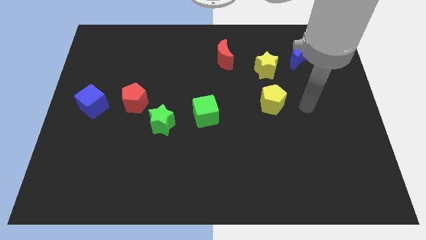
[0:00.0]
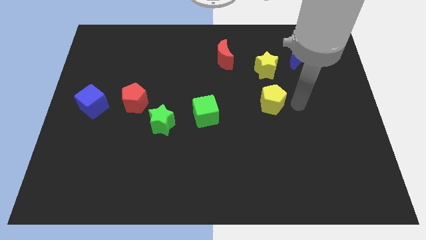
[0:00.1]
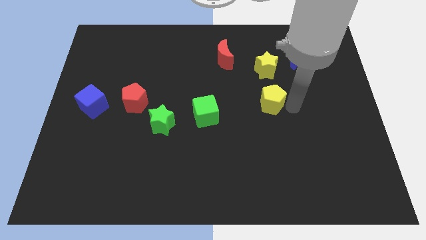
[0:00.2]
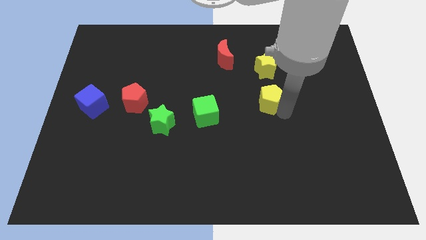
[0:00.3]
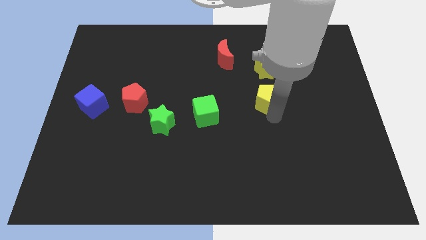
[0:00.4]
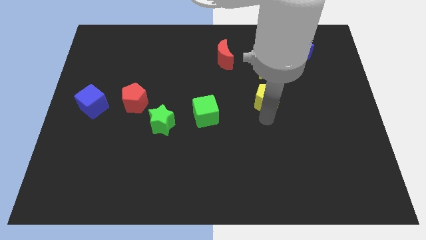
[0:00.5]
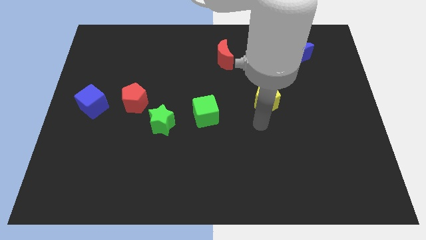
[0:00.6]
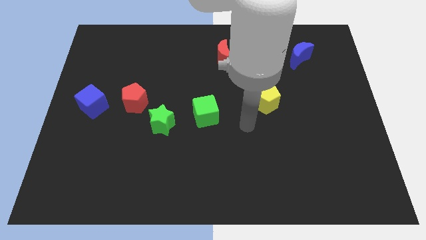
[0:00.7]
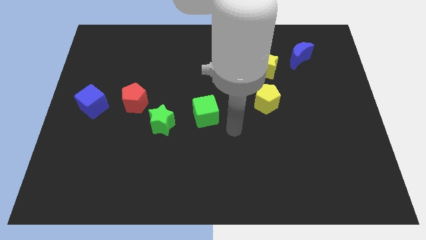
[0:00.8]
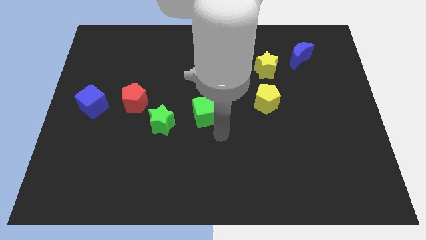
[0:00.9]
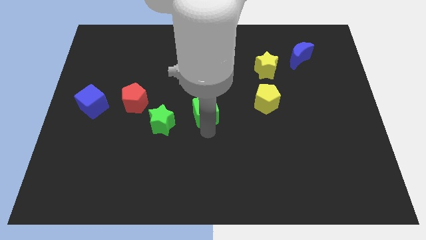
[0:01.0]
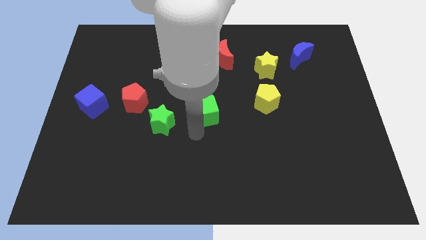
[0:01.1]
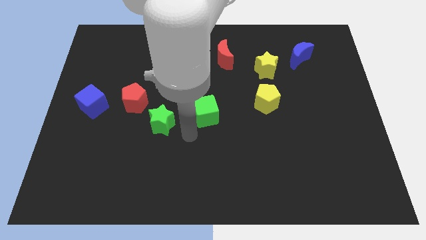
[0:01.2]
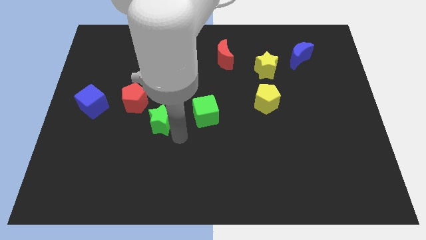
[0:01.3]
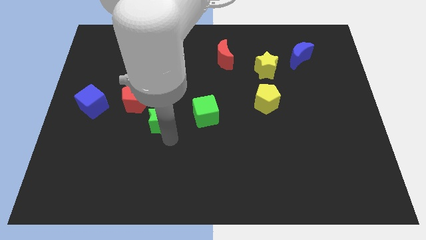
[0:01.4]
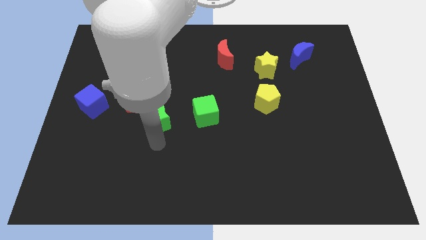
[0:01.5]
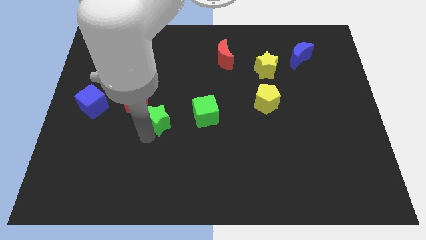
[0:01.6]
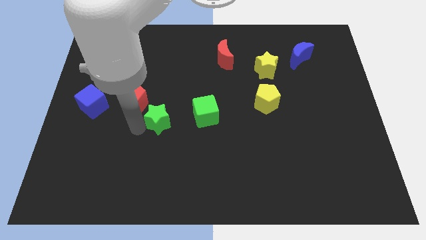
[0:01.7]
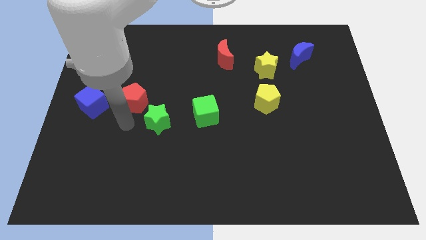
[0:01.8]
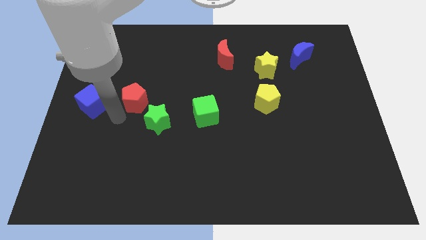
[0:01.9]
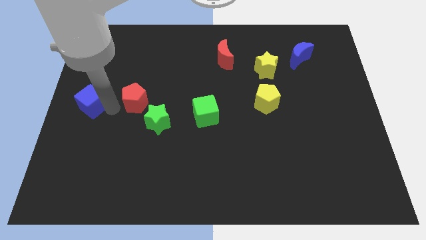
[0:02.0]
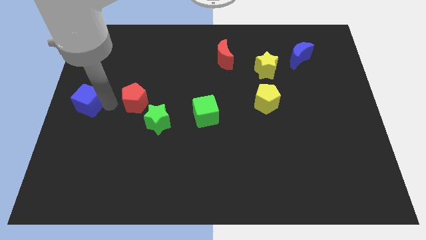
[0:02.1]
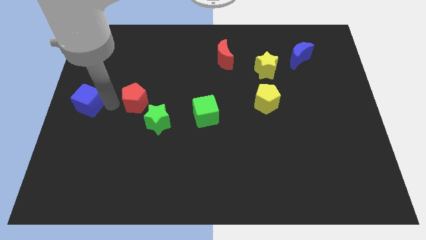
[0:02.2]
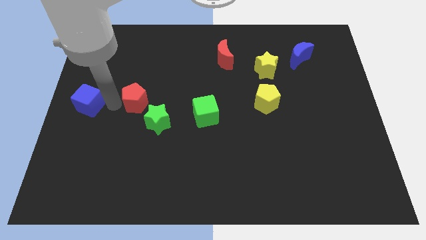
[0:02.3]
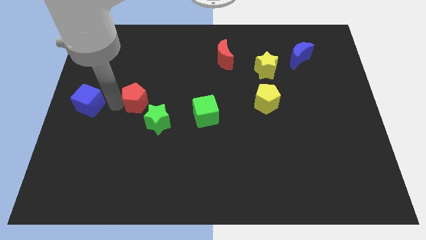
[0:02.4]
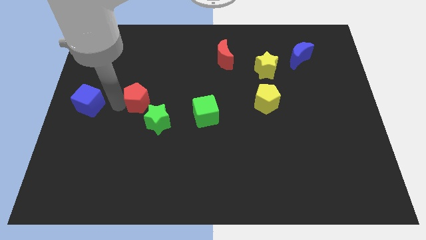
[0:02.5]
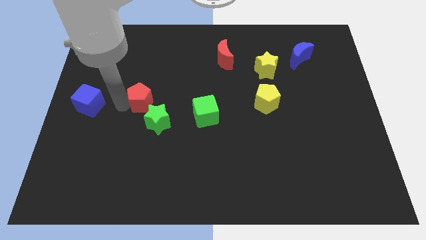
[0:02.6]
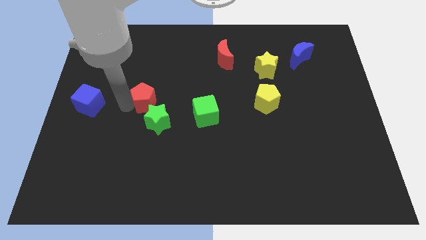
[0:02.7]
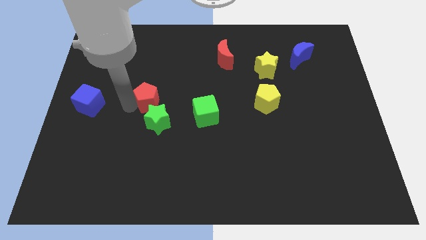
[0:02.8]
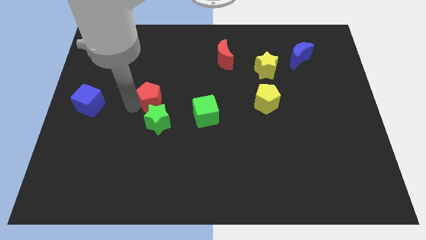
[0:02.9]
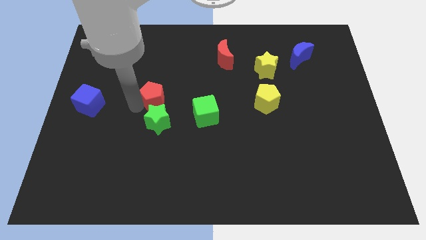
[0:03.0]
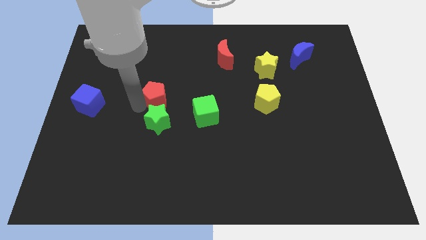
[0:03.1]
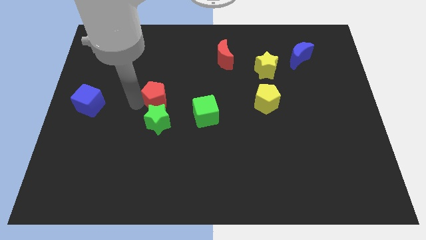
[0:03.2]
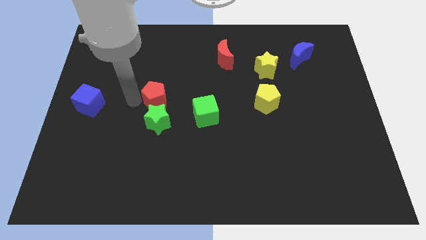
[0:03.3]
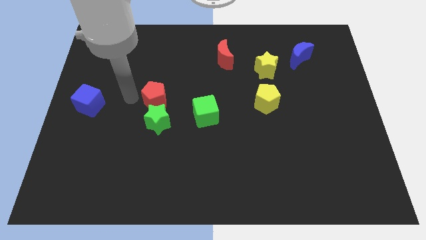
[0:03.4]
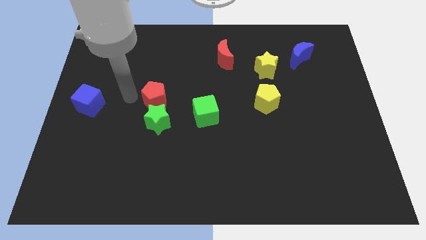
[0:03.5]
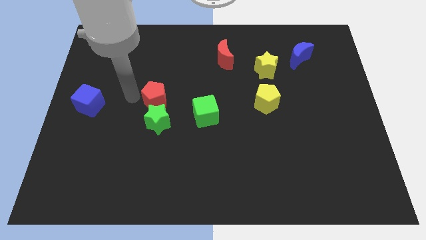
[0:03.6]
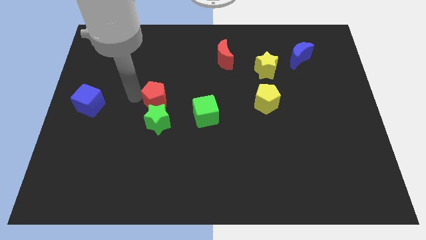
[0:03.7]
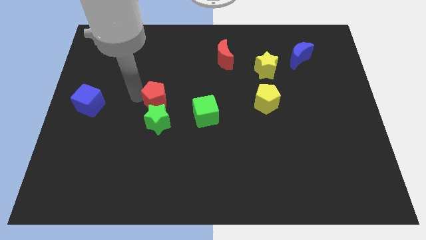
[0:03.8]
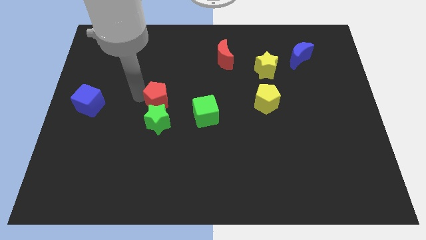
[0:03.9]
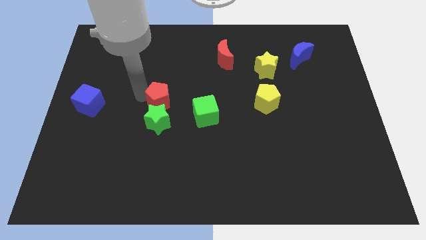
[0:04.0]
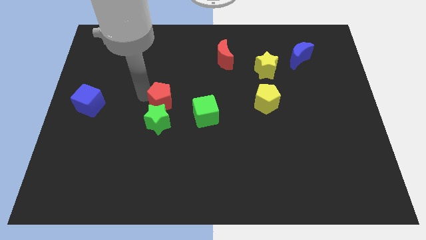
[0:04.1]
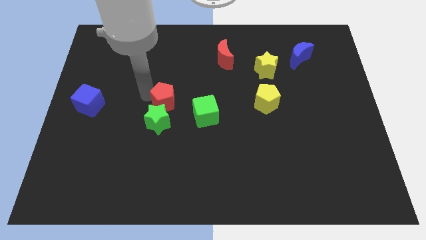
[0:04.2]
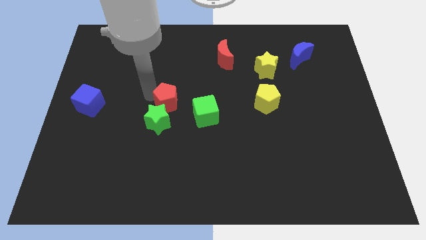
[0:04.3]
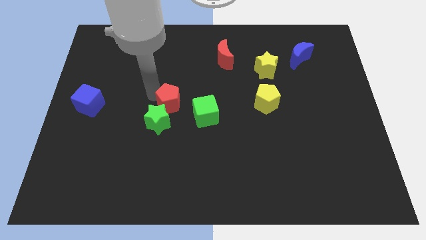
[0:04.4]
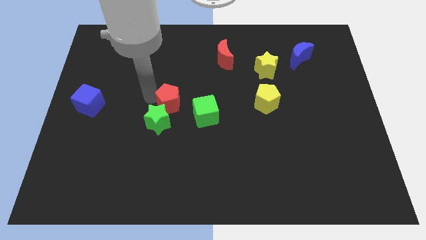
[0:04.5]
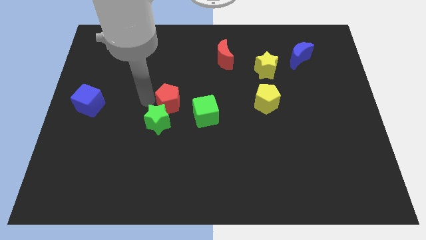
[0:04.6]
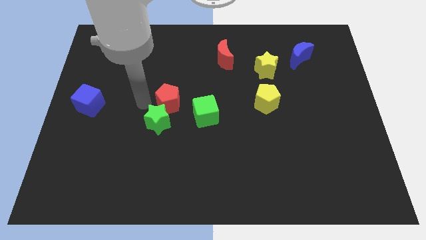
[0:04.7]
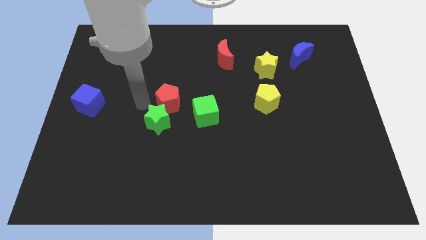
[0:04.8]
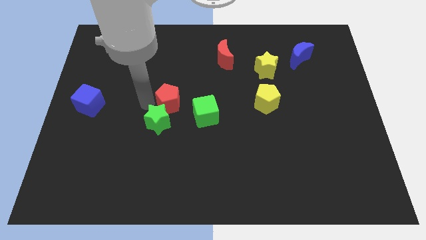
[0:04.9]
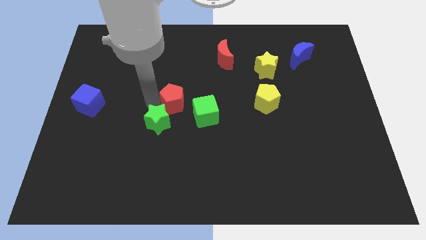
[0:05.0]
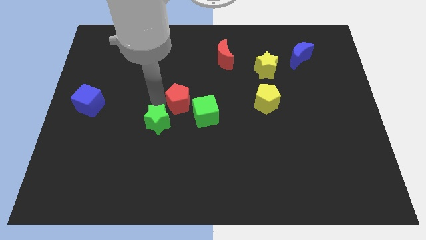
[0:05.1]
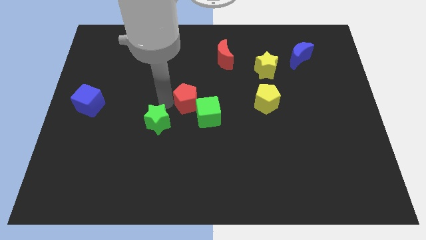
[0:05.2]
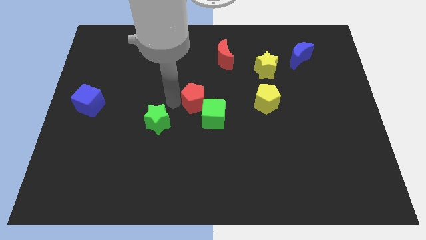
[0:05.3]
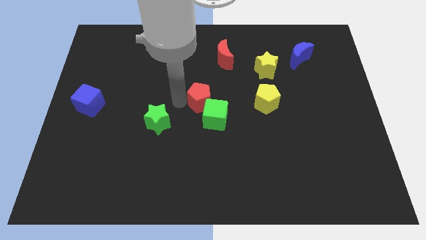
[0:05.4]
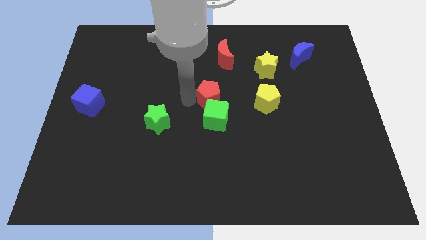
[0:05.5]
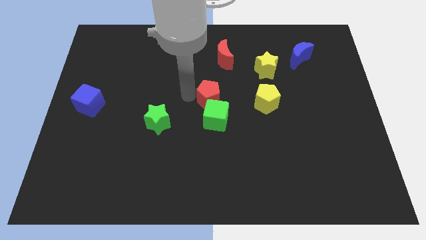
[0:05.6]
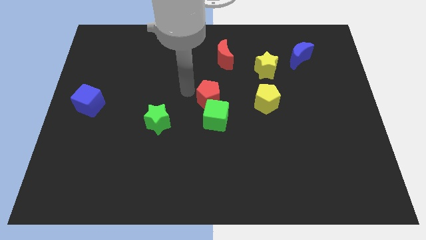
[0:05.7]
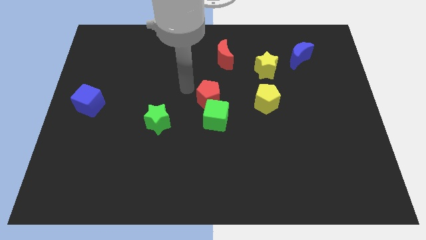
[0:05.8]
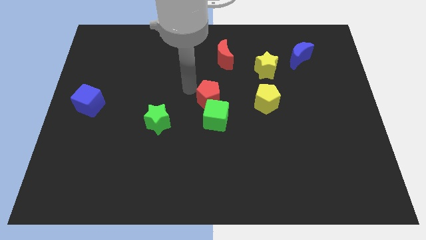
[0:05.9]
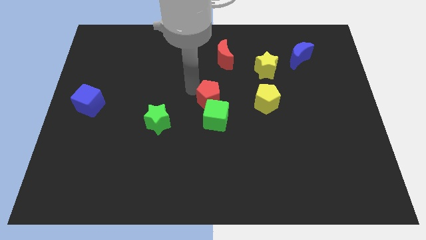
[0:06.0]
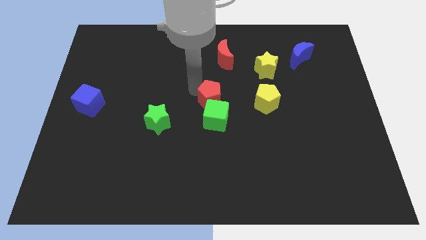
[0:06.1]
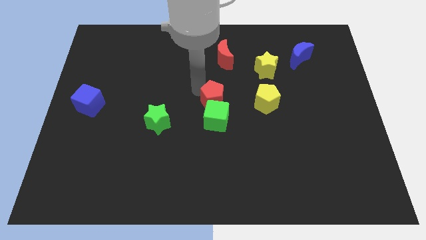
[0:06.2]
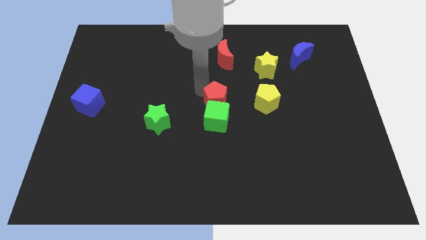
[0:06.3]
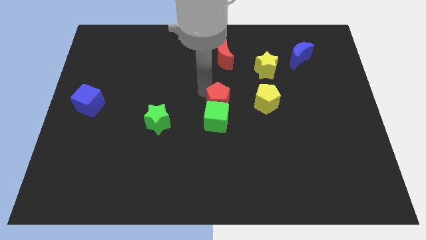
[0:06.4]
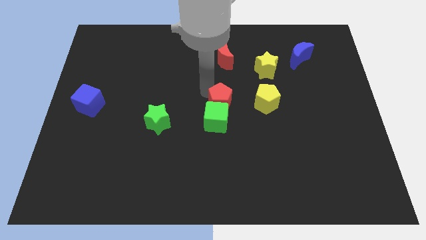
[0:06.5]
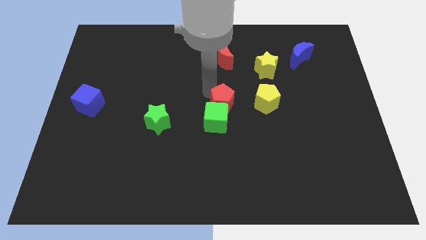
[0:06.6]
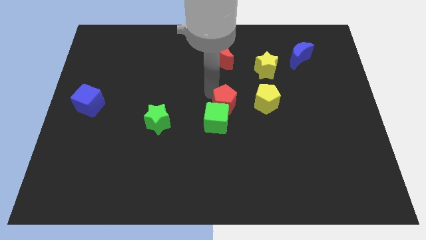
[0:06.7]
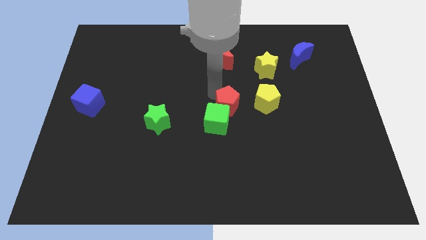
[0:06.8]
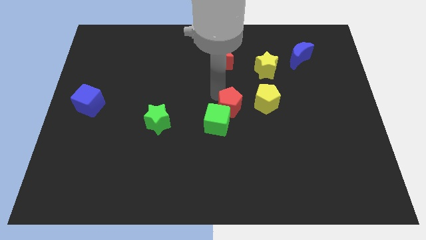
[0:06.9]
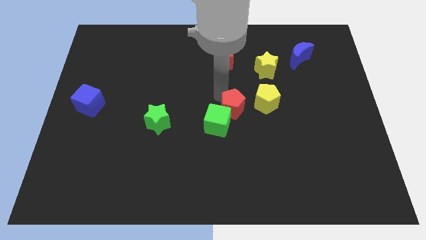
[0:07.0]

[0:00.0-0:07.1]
push the red pentagon to the bottom left side of the yellow pentagon
